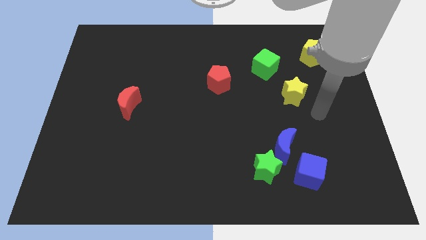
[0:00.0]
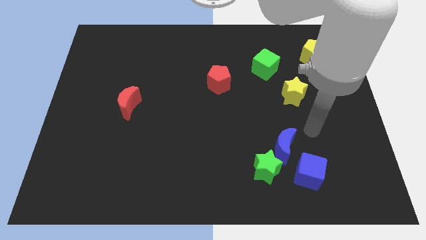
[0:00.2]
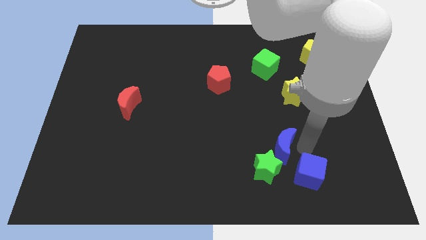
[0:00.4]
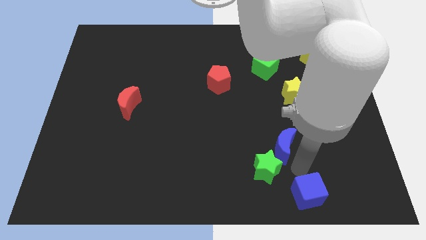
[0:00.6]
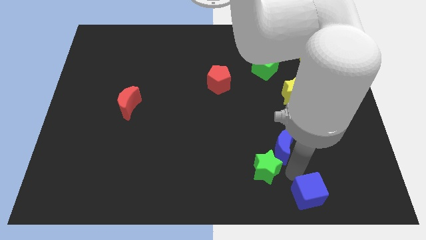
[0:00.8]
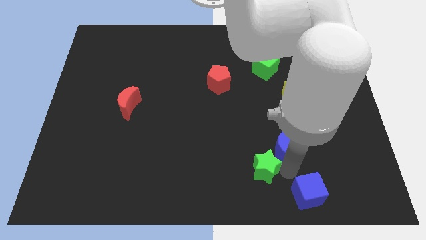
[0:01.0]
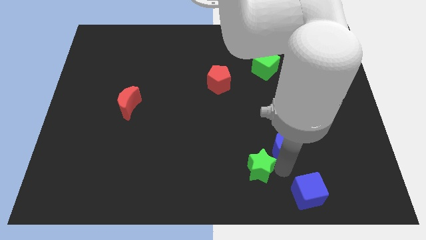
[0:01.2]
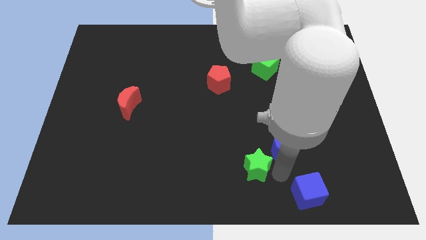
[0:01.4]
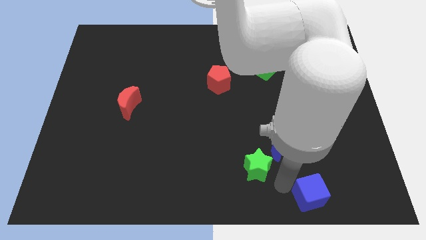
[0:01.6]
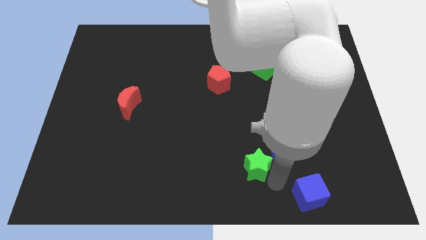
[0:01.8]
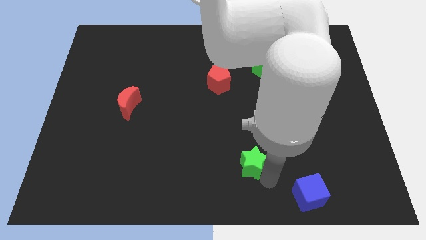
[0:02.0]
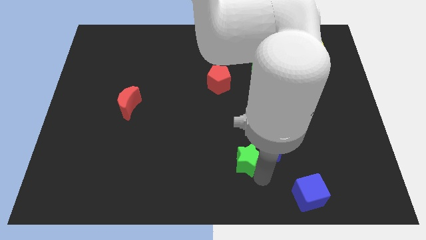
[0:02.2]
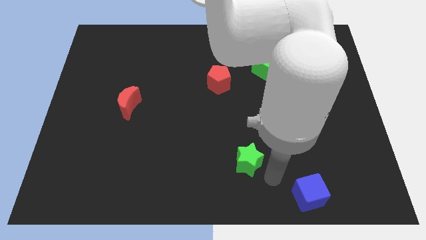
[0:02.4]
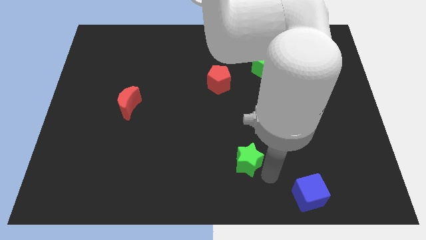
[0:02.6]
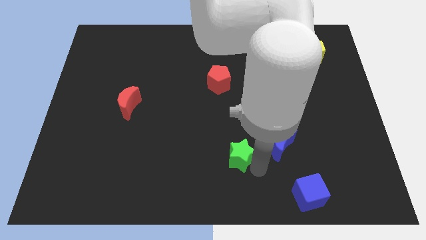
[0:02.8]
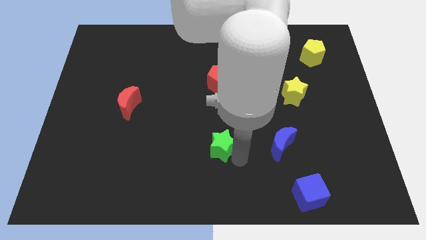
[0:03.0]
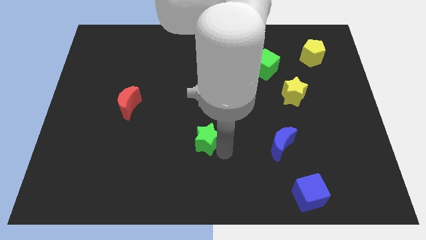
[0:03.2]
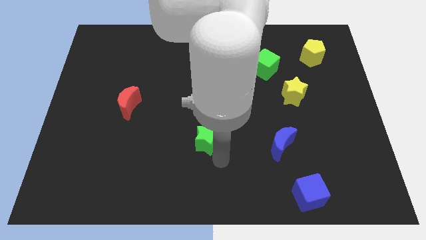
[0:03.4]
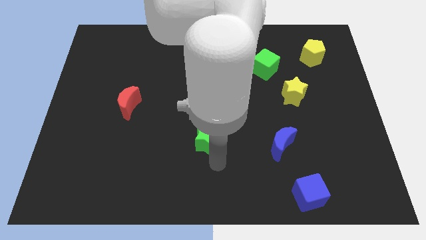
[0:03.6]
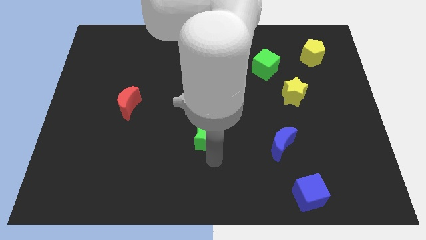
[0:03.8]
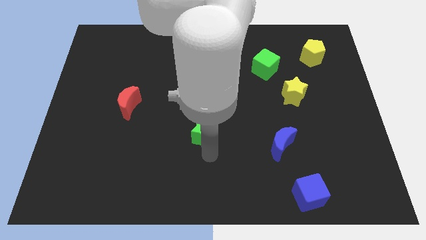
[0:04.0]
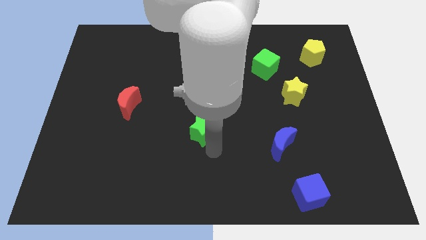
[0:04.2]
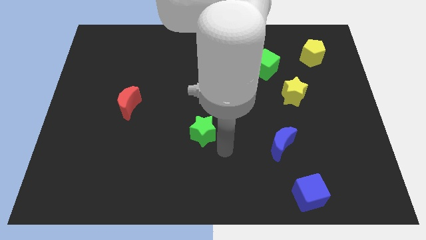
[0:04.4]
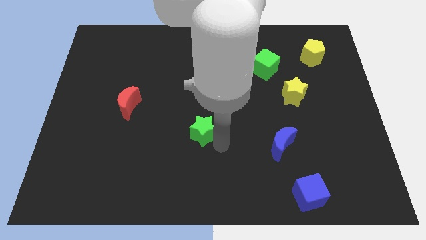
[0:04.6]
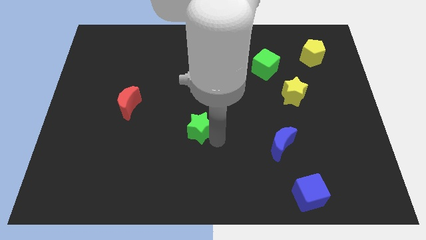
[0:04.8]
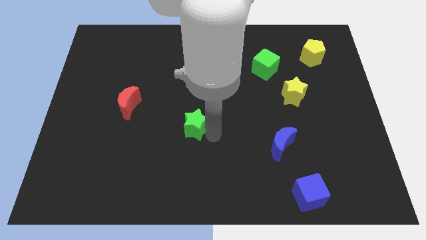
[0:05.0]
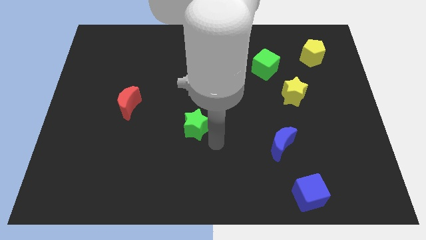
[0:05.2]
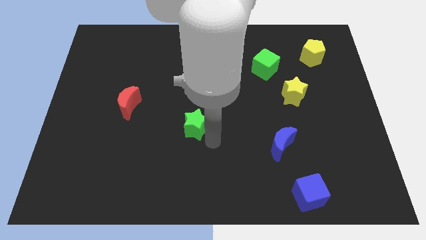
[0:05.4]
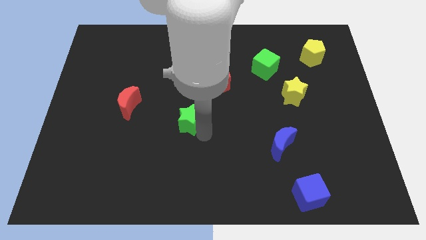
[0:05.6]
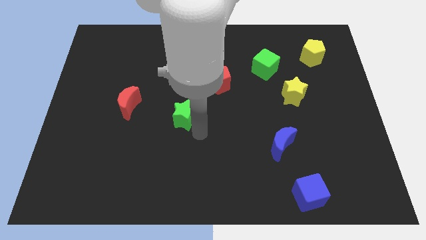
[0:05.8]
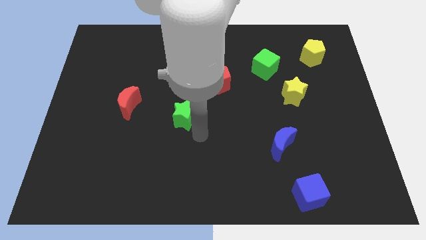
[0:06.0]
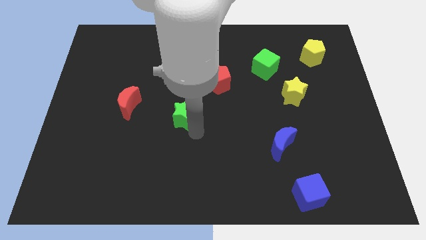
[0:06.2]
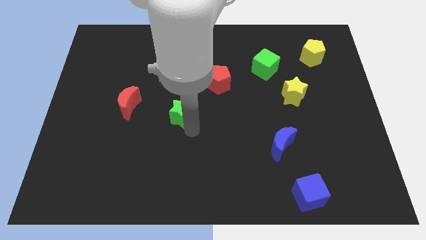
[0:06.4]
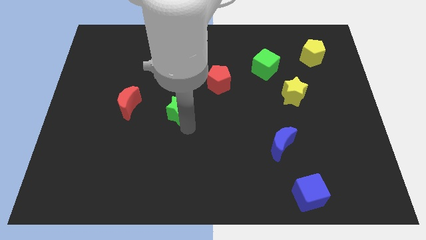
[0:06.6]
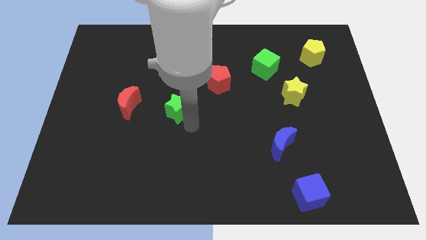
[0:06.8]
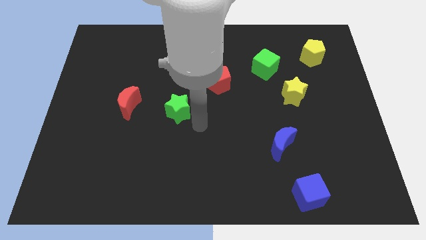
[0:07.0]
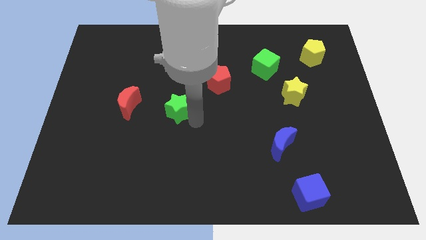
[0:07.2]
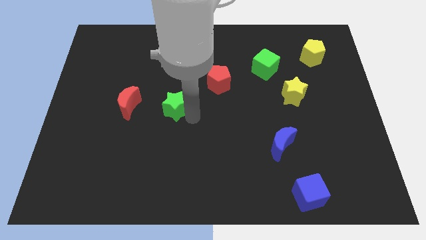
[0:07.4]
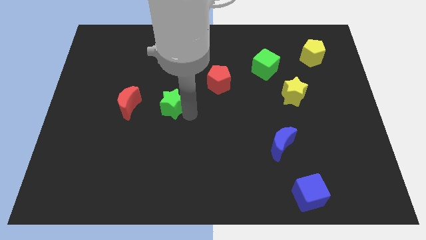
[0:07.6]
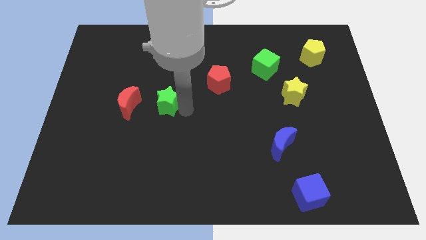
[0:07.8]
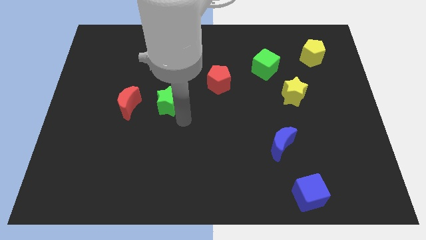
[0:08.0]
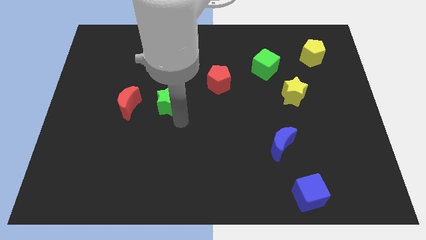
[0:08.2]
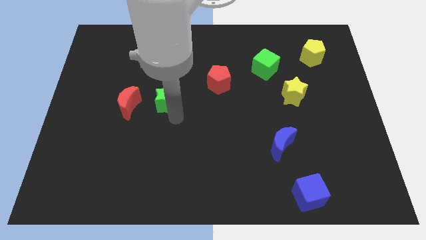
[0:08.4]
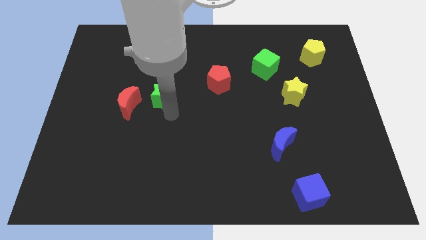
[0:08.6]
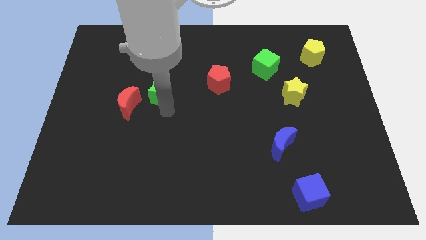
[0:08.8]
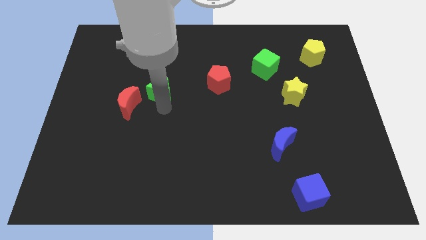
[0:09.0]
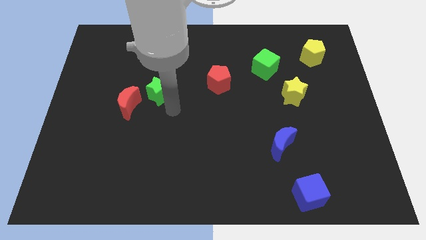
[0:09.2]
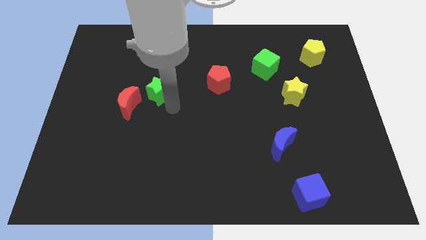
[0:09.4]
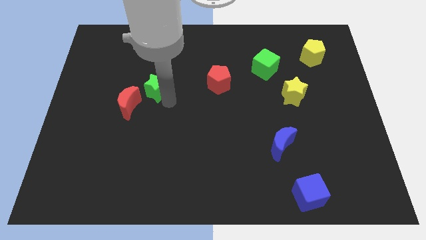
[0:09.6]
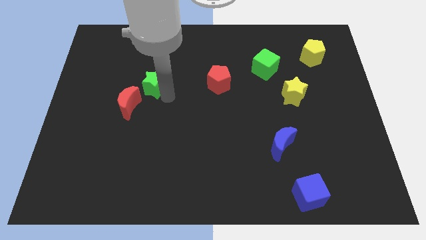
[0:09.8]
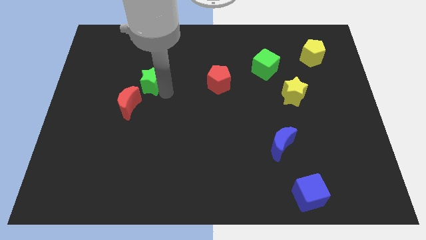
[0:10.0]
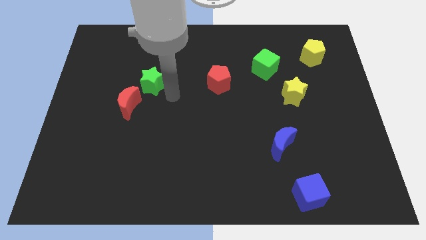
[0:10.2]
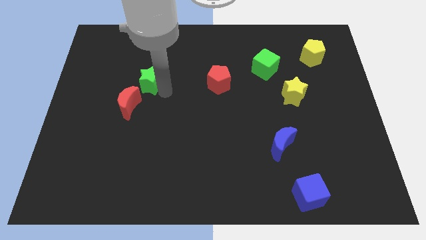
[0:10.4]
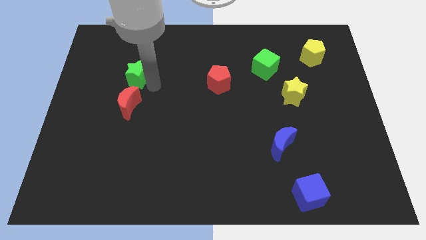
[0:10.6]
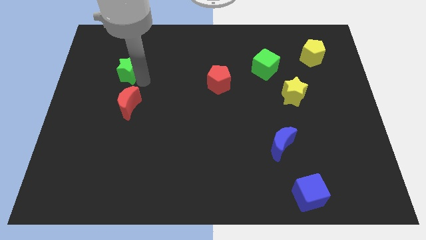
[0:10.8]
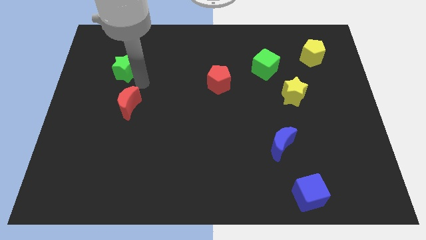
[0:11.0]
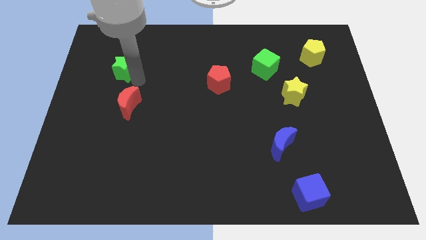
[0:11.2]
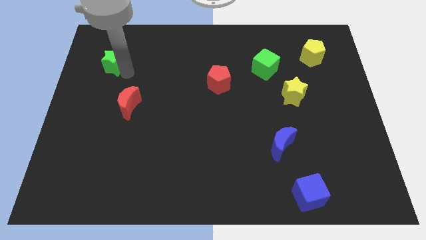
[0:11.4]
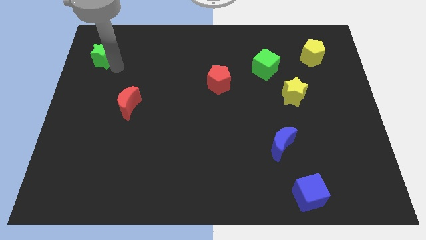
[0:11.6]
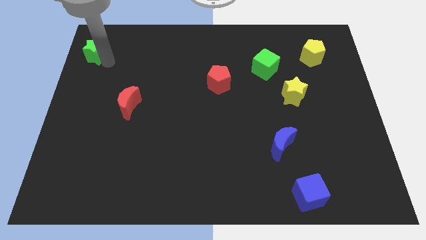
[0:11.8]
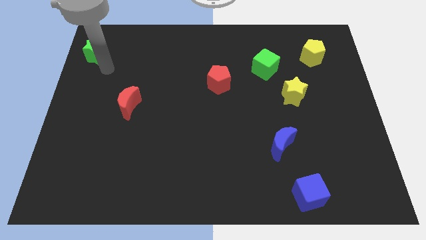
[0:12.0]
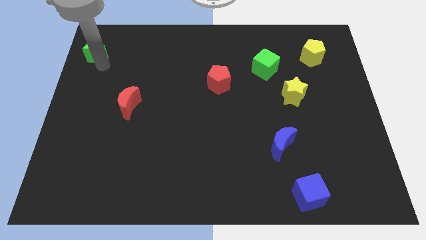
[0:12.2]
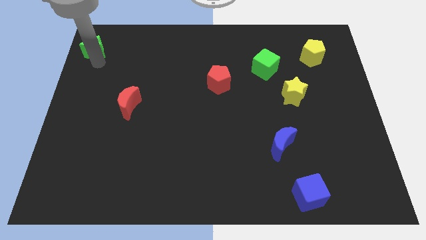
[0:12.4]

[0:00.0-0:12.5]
put the green star to the upper left corner
